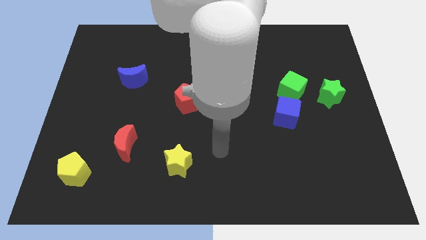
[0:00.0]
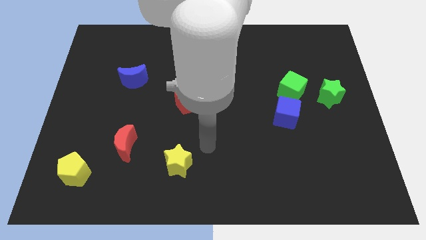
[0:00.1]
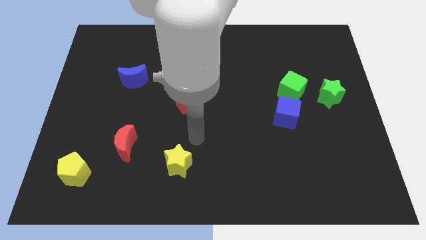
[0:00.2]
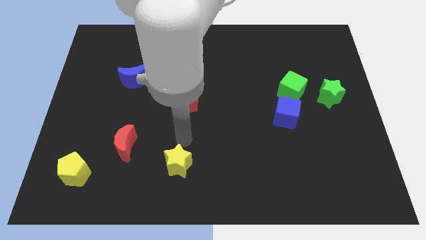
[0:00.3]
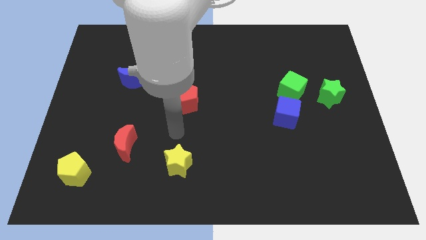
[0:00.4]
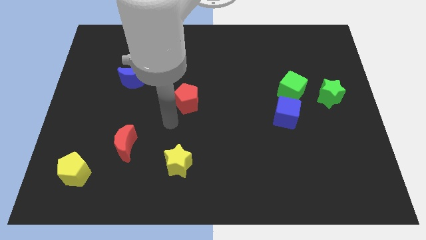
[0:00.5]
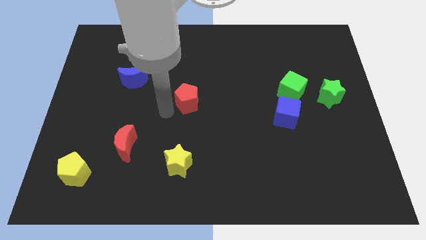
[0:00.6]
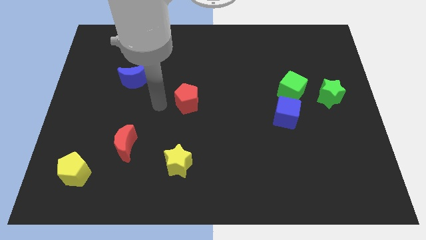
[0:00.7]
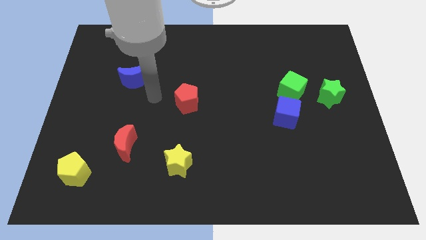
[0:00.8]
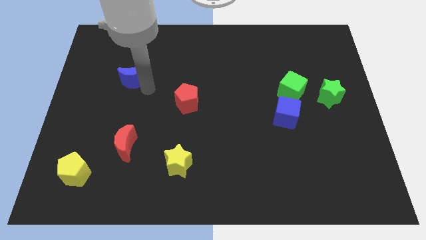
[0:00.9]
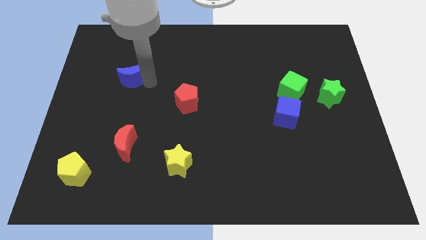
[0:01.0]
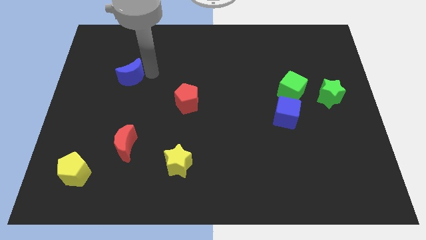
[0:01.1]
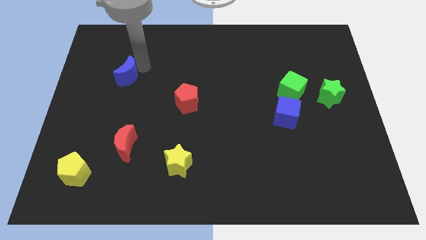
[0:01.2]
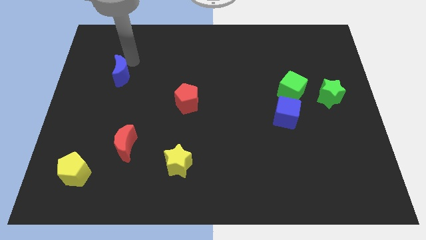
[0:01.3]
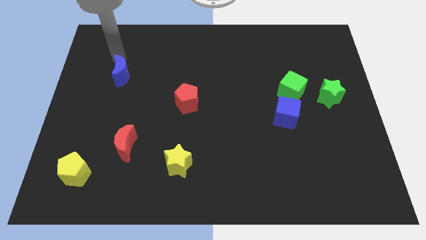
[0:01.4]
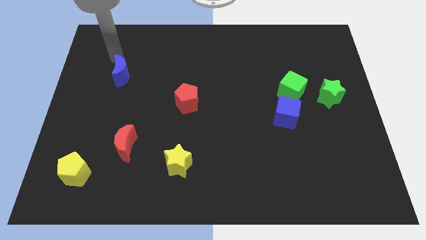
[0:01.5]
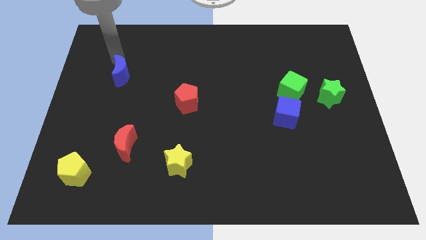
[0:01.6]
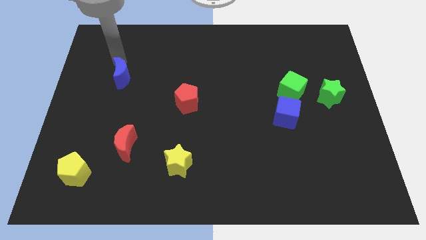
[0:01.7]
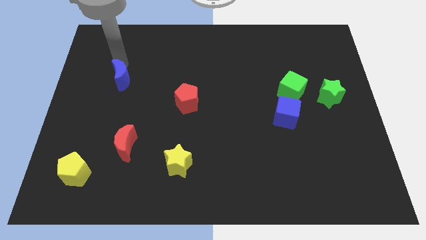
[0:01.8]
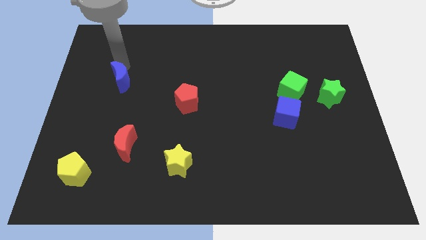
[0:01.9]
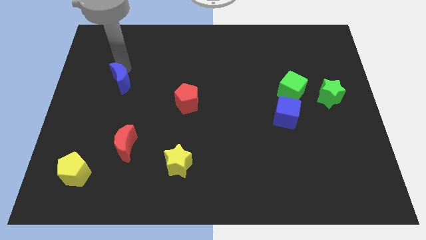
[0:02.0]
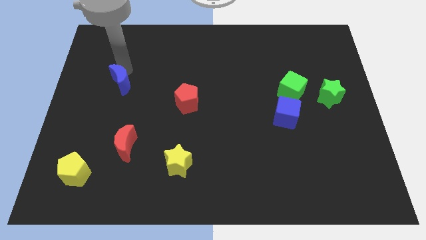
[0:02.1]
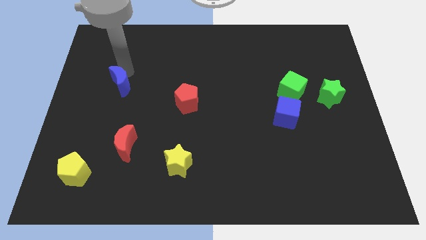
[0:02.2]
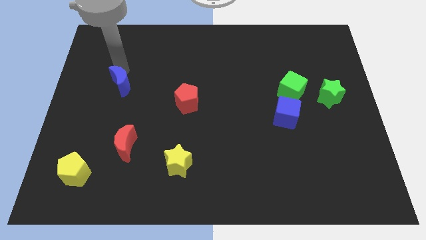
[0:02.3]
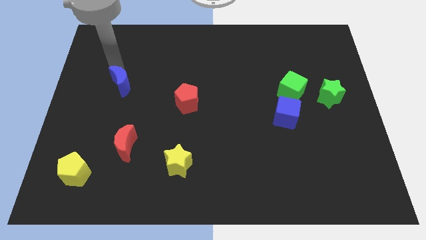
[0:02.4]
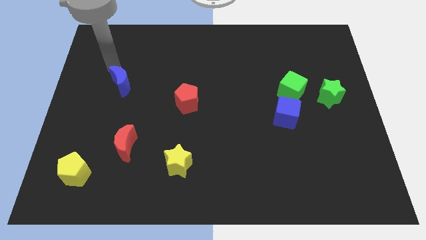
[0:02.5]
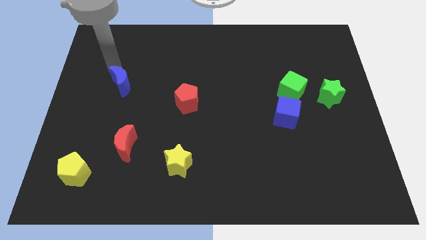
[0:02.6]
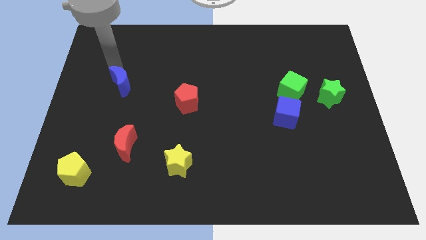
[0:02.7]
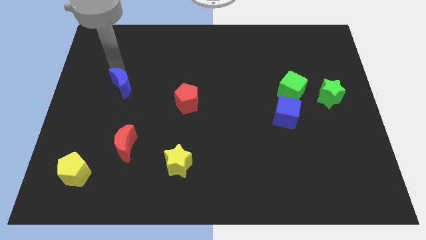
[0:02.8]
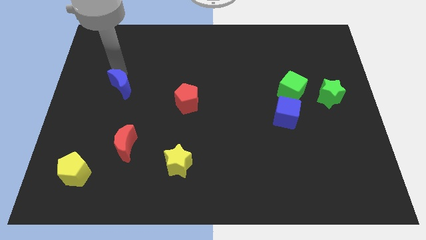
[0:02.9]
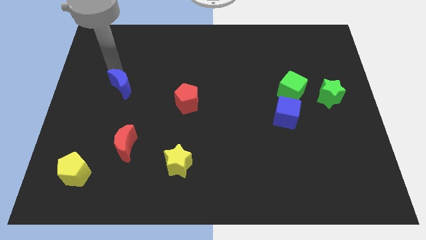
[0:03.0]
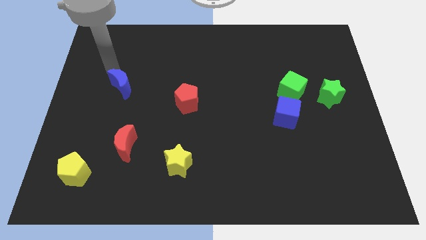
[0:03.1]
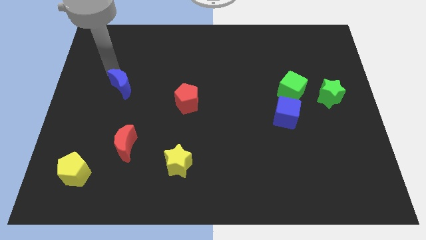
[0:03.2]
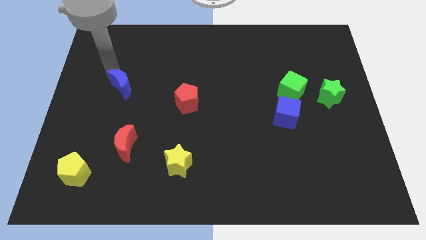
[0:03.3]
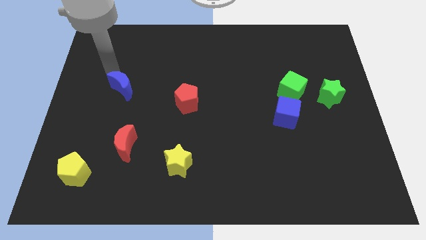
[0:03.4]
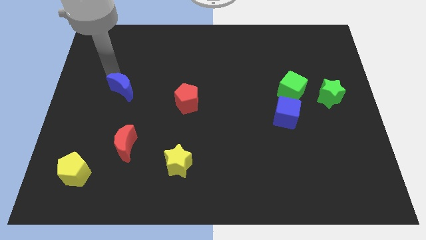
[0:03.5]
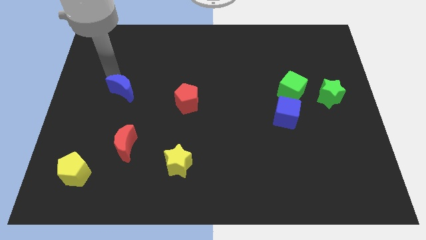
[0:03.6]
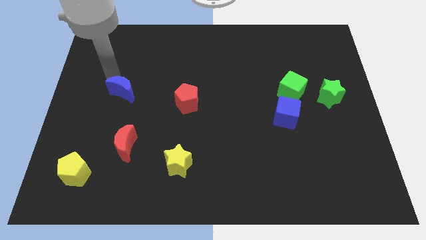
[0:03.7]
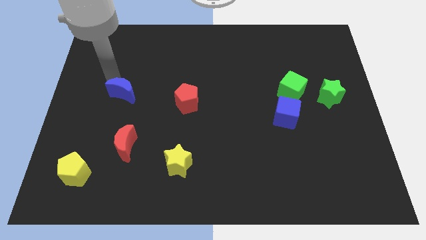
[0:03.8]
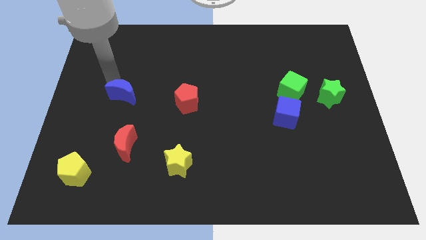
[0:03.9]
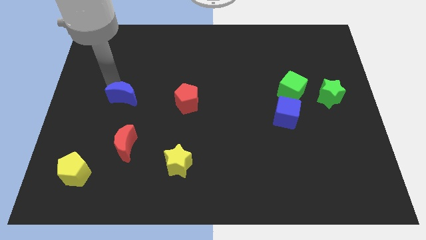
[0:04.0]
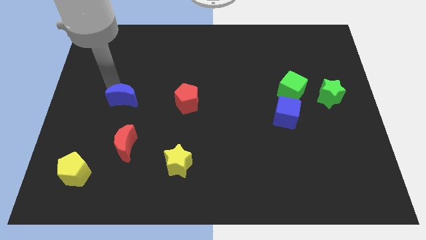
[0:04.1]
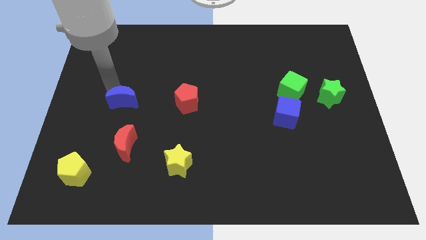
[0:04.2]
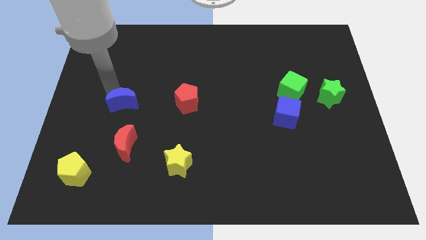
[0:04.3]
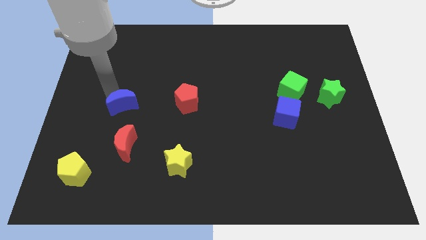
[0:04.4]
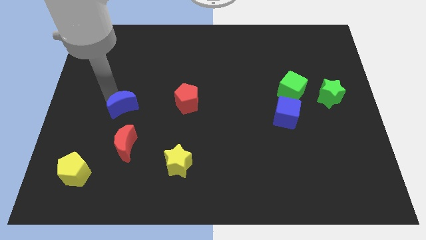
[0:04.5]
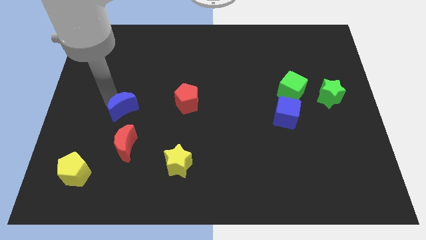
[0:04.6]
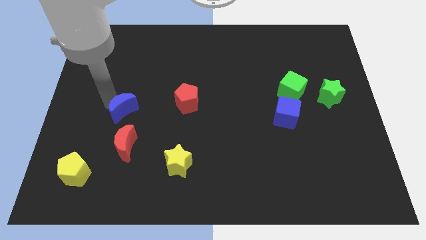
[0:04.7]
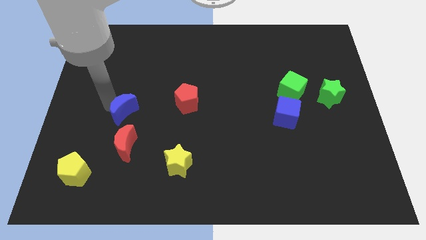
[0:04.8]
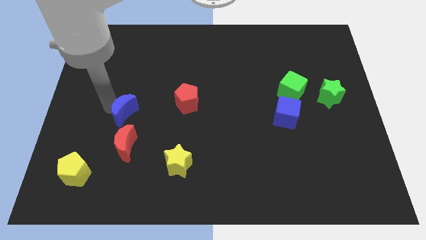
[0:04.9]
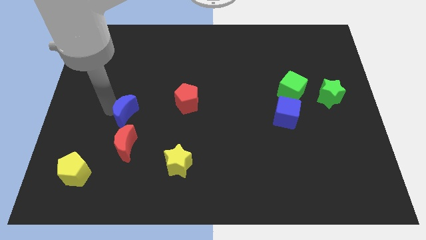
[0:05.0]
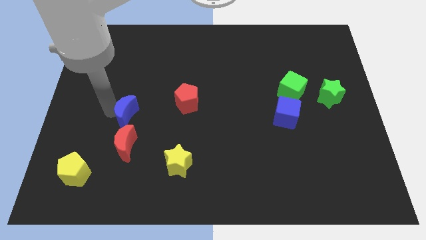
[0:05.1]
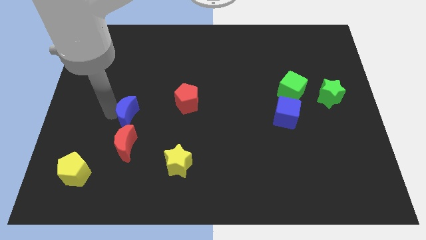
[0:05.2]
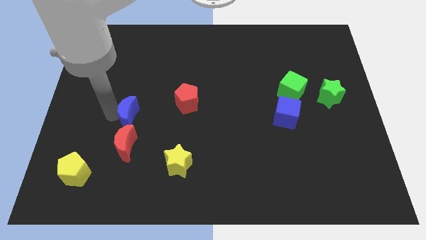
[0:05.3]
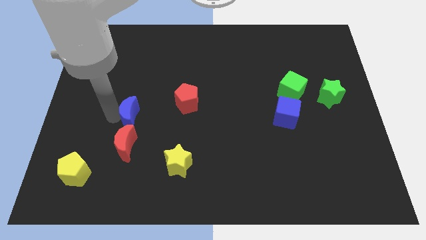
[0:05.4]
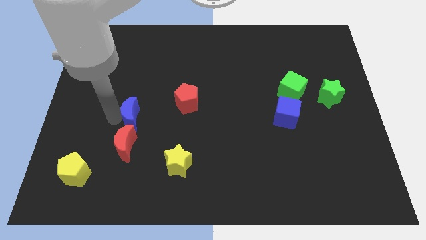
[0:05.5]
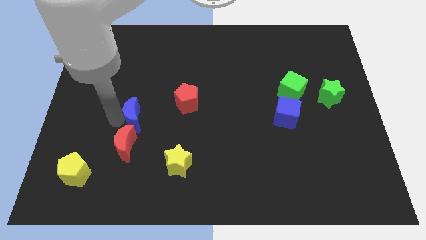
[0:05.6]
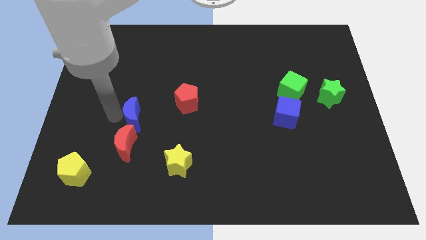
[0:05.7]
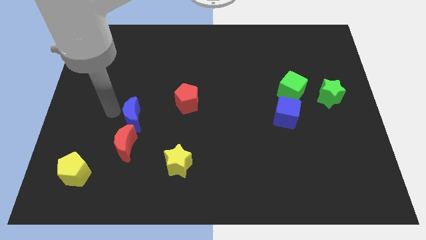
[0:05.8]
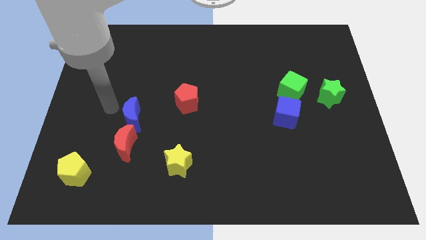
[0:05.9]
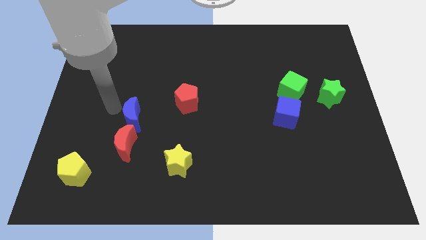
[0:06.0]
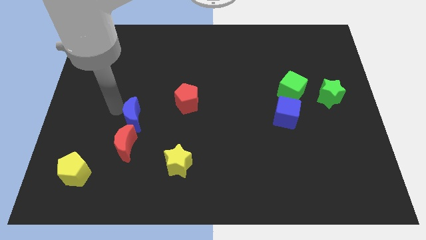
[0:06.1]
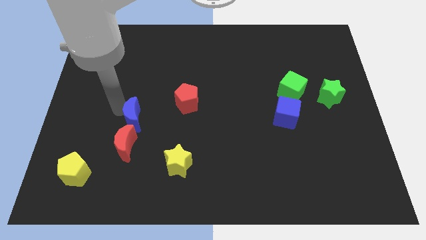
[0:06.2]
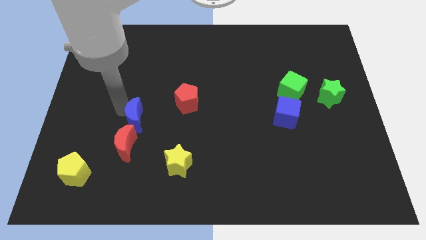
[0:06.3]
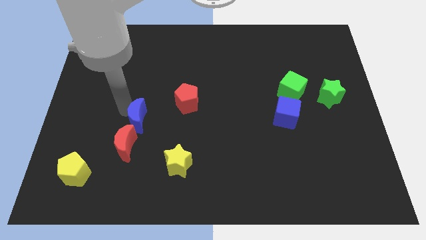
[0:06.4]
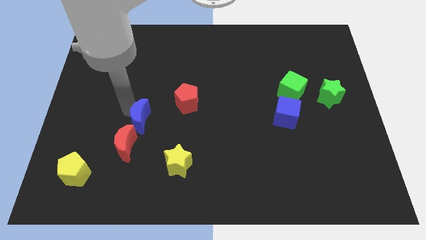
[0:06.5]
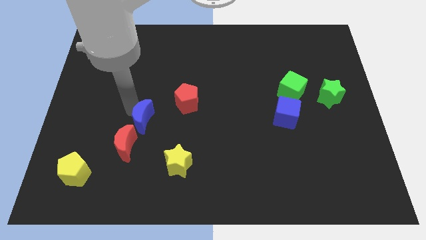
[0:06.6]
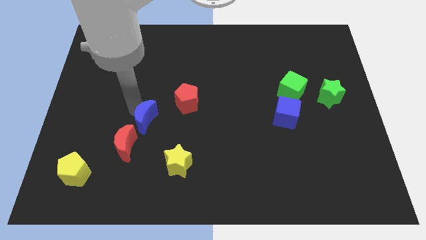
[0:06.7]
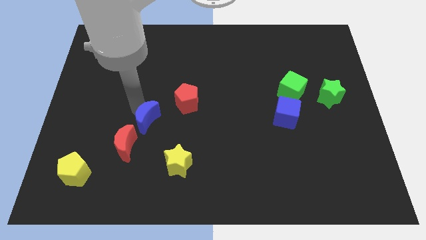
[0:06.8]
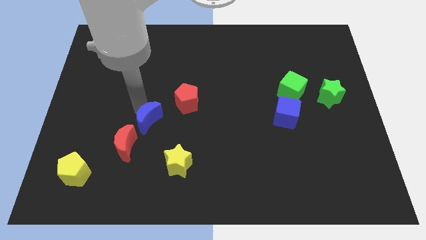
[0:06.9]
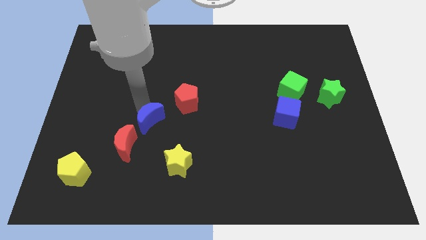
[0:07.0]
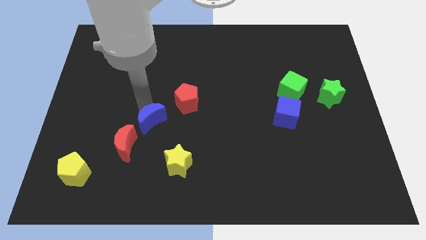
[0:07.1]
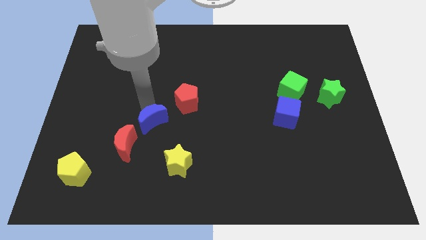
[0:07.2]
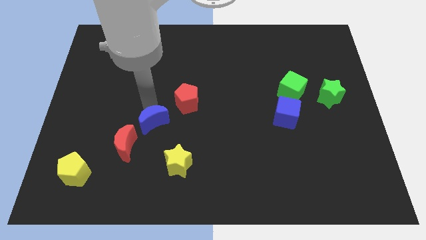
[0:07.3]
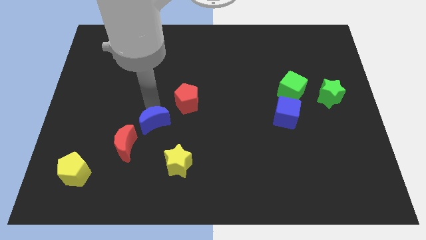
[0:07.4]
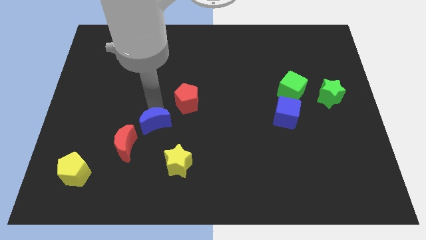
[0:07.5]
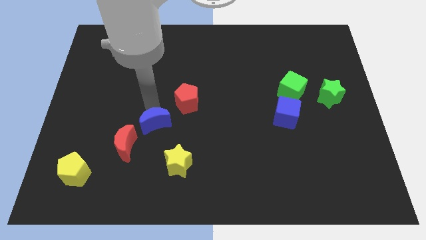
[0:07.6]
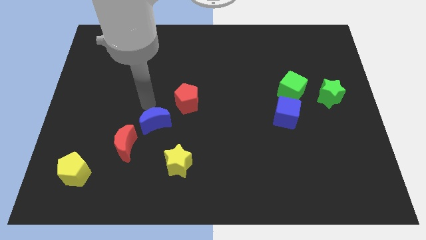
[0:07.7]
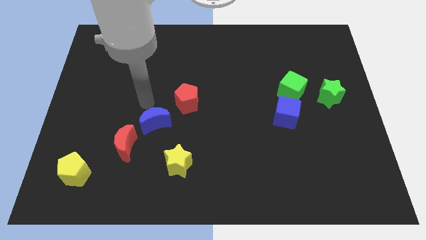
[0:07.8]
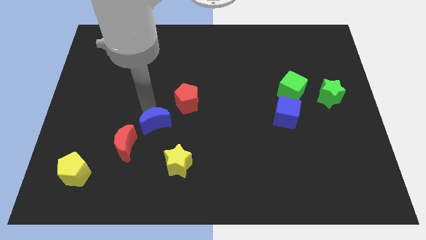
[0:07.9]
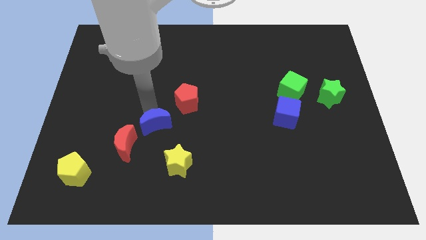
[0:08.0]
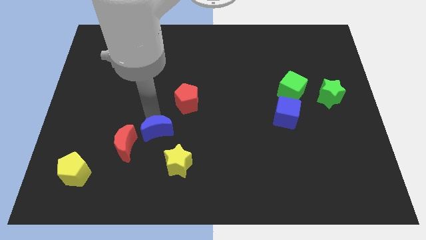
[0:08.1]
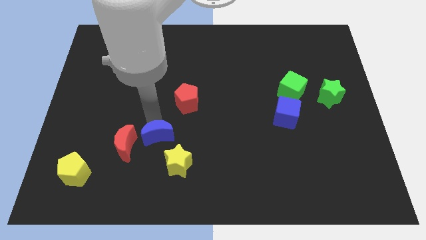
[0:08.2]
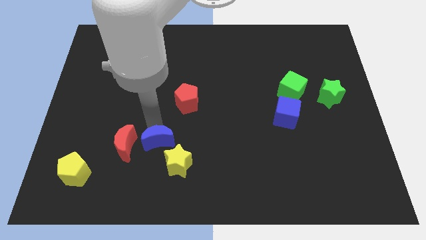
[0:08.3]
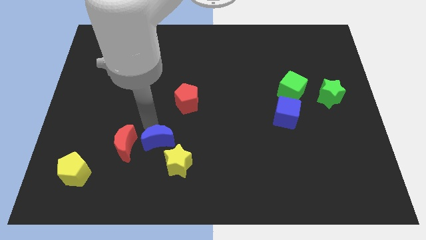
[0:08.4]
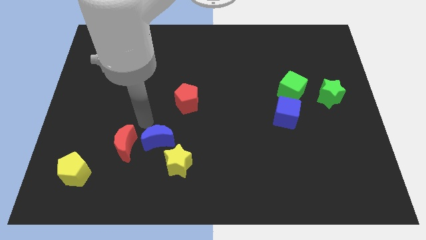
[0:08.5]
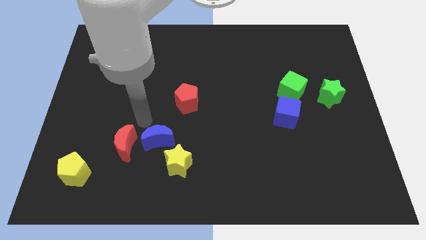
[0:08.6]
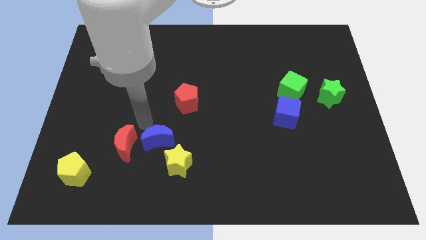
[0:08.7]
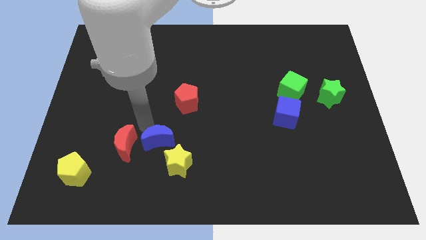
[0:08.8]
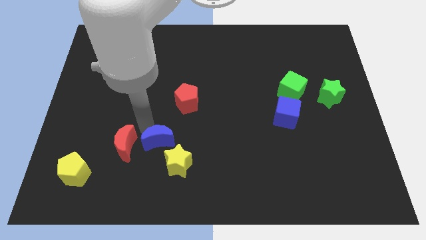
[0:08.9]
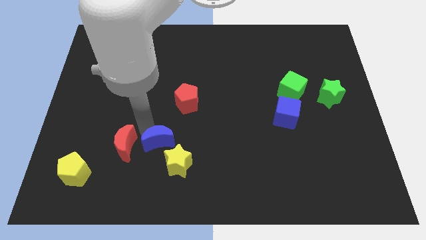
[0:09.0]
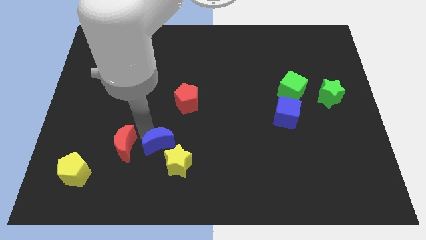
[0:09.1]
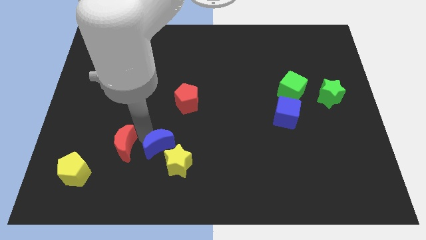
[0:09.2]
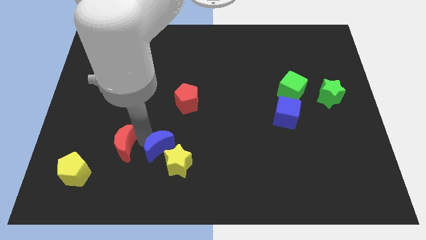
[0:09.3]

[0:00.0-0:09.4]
put the blue moon to the yellow star
